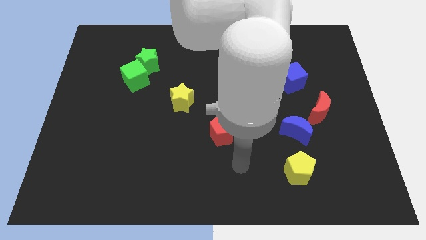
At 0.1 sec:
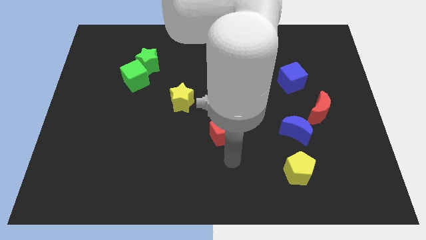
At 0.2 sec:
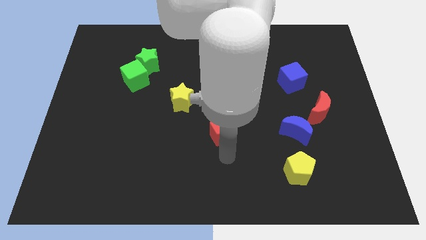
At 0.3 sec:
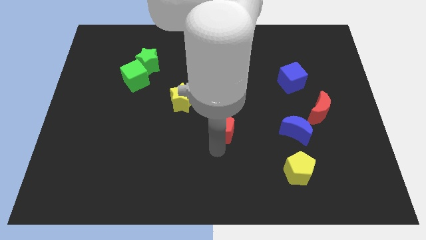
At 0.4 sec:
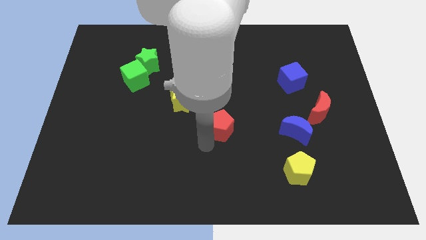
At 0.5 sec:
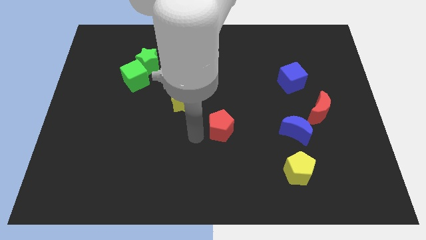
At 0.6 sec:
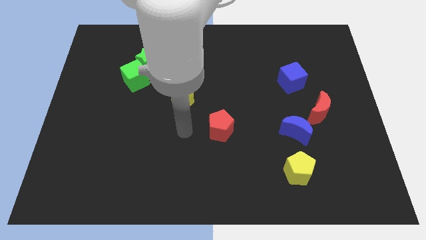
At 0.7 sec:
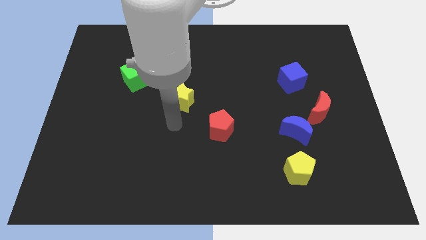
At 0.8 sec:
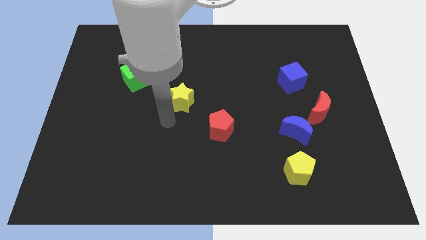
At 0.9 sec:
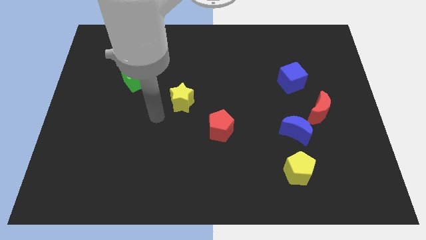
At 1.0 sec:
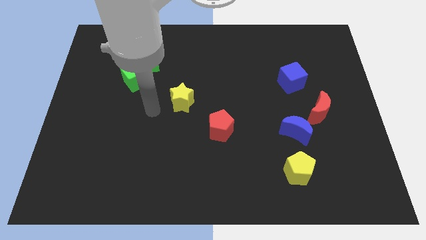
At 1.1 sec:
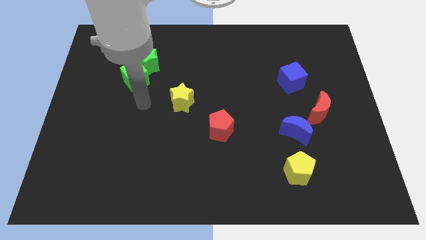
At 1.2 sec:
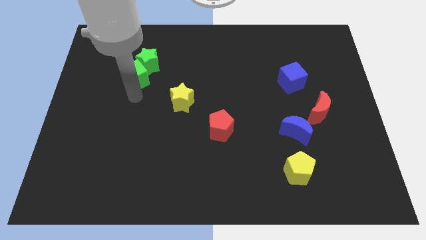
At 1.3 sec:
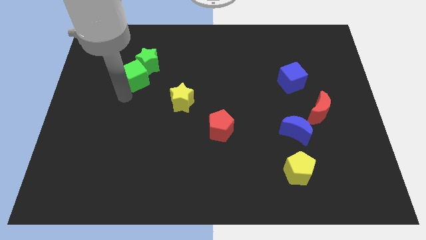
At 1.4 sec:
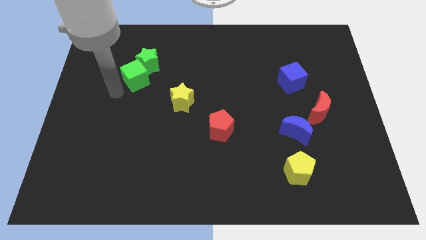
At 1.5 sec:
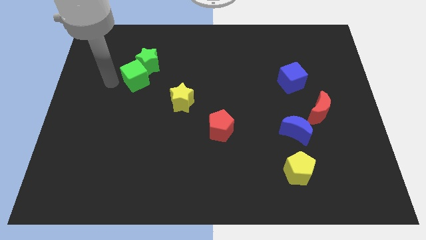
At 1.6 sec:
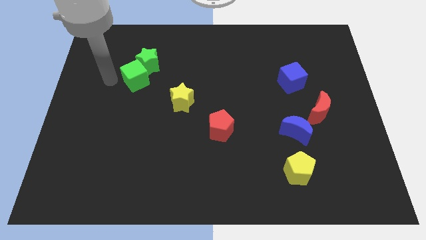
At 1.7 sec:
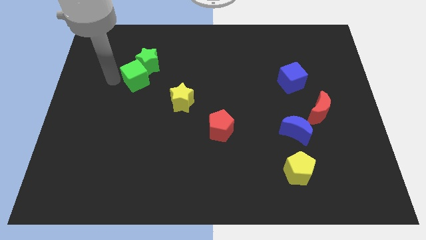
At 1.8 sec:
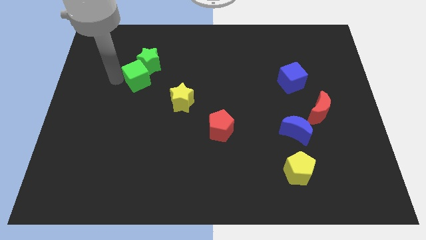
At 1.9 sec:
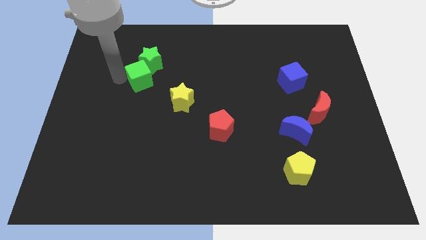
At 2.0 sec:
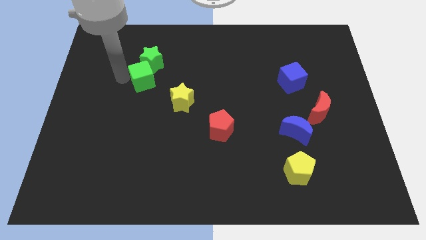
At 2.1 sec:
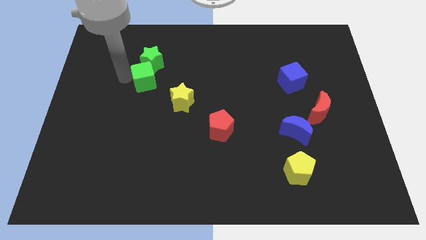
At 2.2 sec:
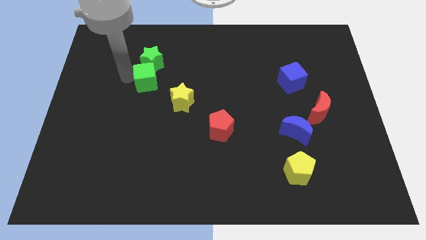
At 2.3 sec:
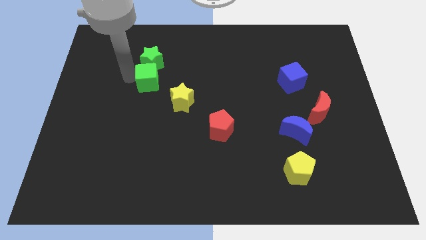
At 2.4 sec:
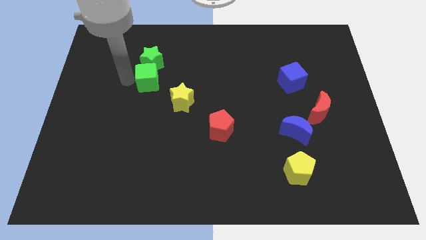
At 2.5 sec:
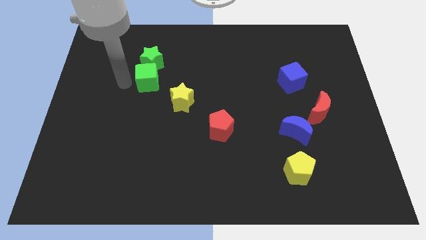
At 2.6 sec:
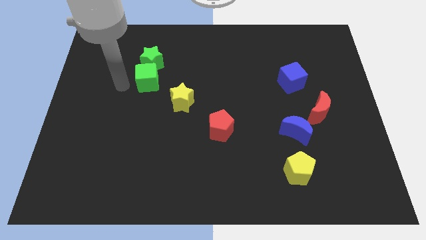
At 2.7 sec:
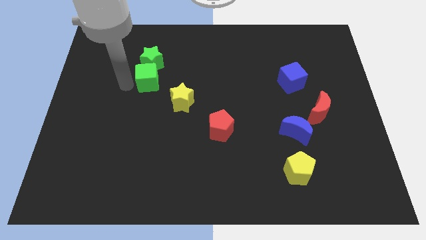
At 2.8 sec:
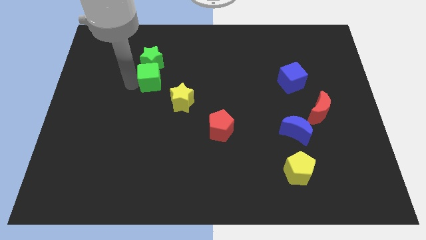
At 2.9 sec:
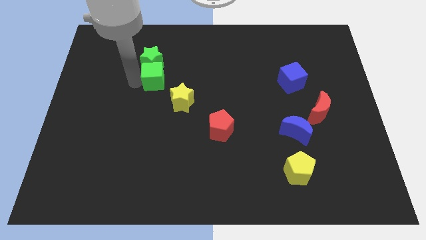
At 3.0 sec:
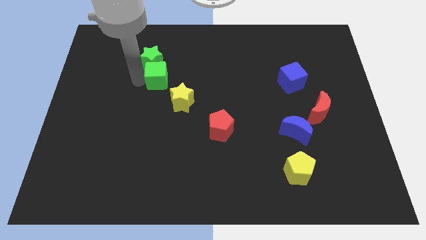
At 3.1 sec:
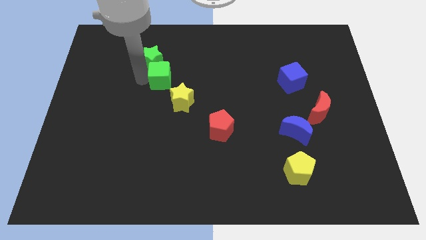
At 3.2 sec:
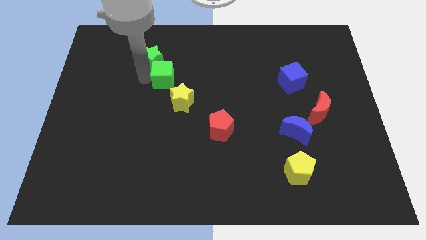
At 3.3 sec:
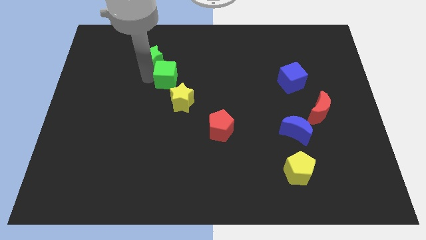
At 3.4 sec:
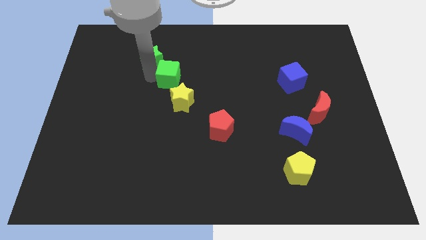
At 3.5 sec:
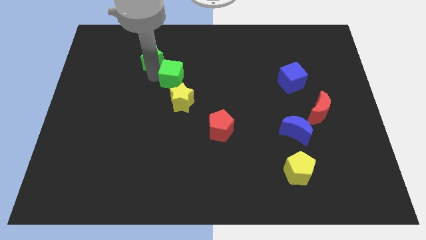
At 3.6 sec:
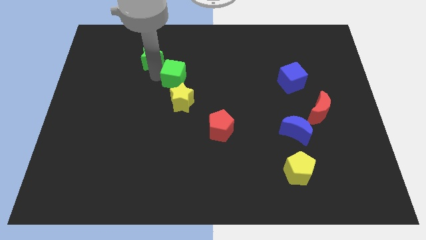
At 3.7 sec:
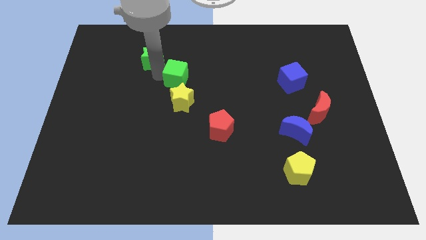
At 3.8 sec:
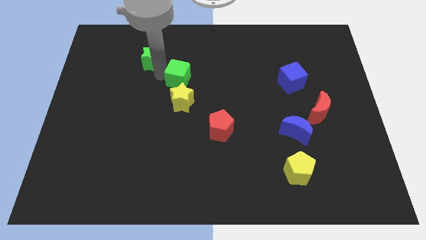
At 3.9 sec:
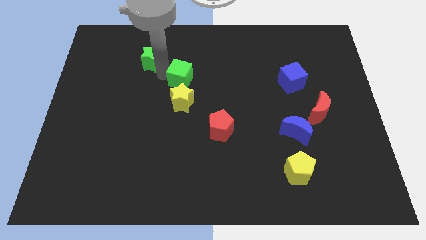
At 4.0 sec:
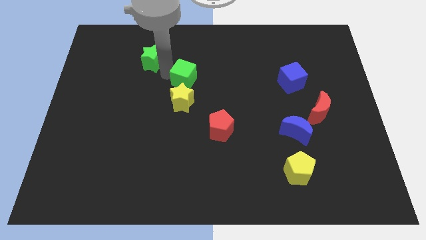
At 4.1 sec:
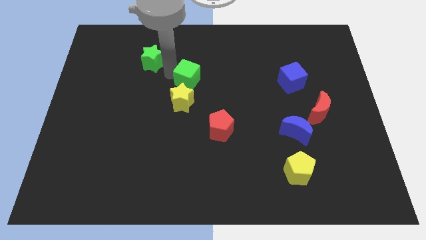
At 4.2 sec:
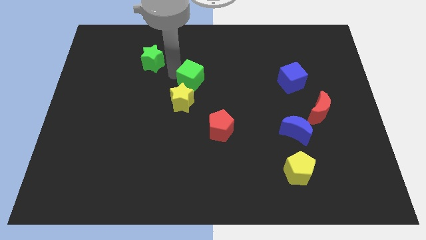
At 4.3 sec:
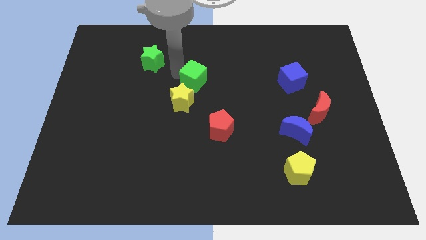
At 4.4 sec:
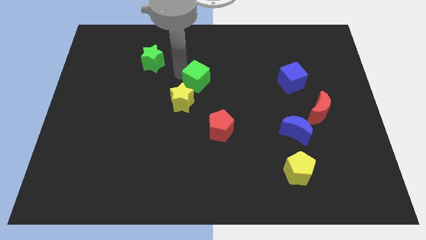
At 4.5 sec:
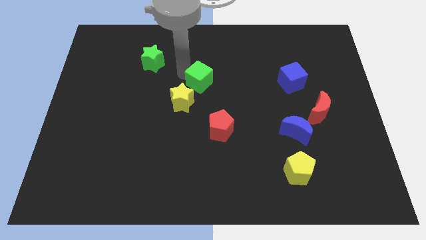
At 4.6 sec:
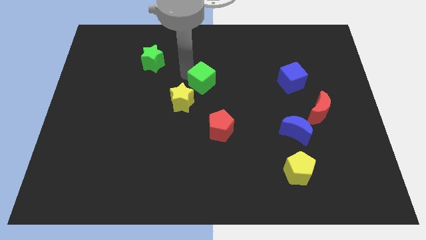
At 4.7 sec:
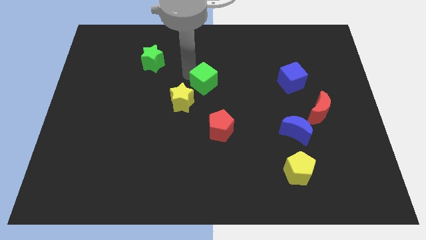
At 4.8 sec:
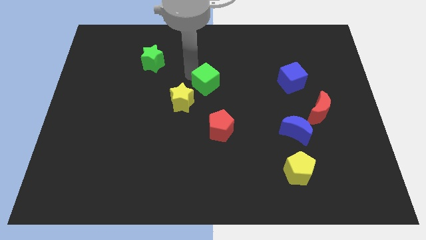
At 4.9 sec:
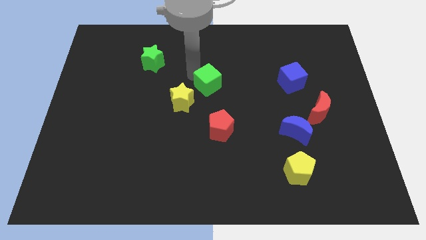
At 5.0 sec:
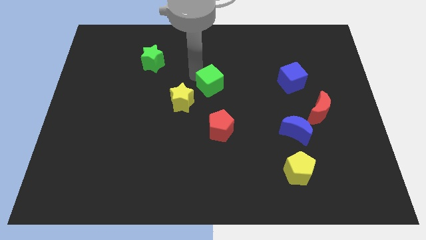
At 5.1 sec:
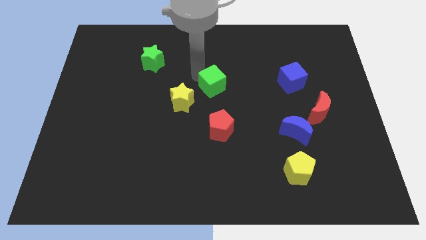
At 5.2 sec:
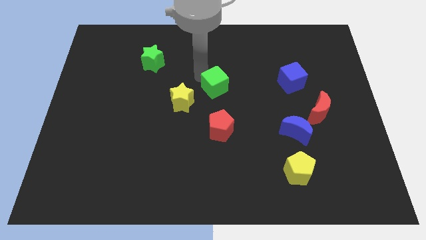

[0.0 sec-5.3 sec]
slide the green cube right of the yellow star

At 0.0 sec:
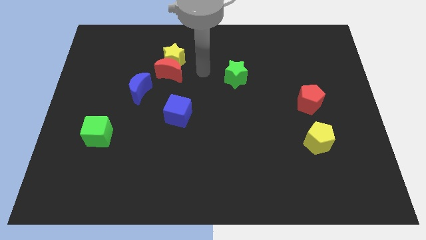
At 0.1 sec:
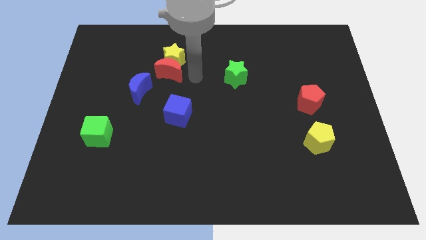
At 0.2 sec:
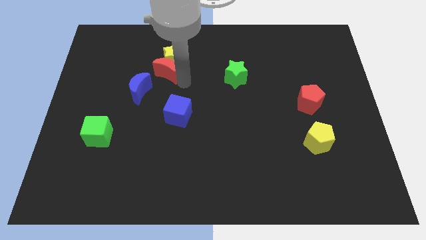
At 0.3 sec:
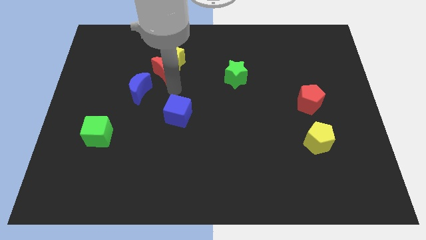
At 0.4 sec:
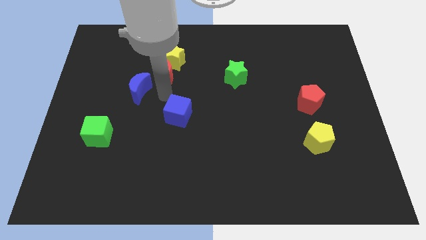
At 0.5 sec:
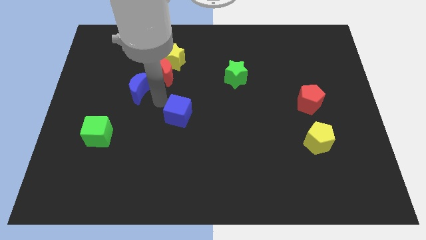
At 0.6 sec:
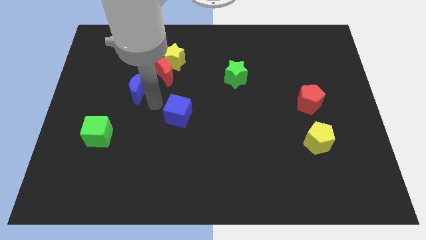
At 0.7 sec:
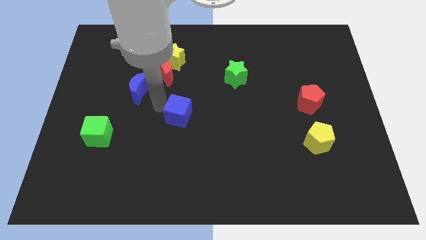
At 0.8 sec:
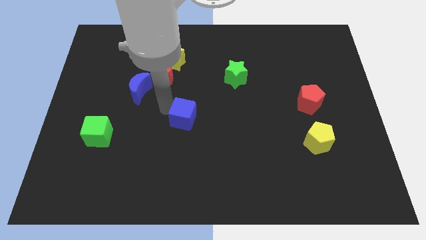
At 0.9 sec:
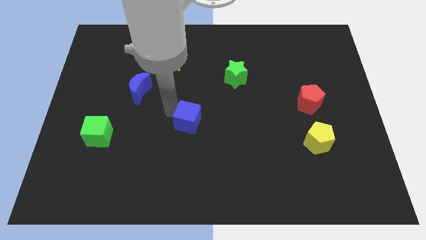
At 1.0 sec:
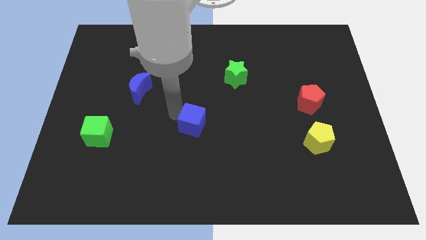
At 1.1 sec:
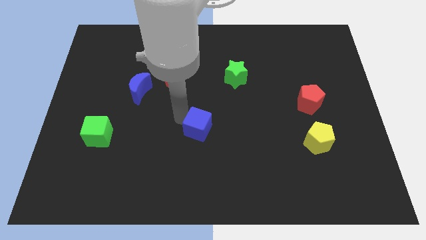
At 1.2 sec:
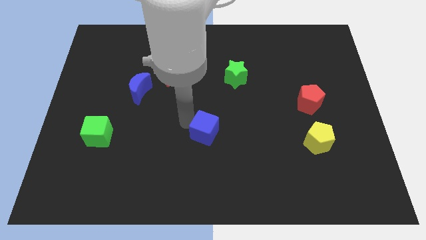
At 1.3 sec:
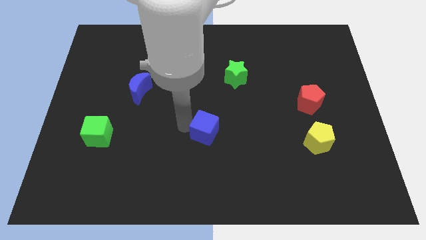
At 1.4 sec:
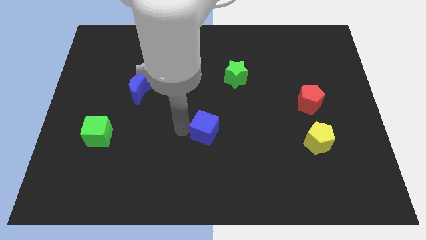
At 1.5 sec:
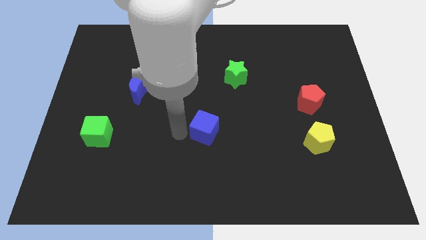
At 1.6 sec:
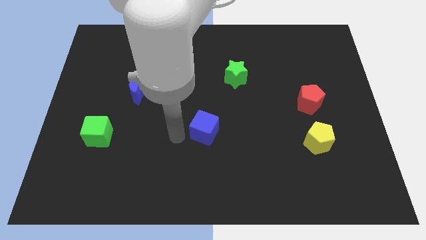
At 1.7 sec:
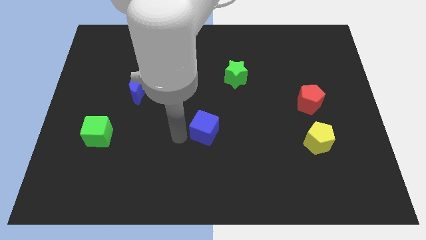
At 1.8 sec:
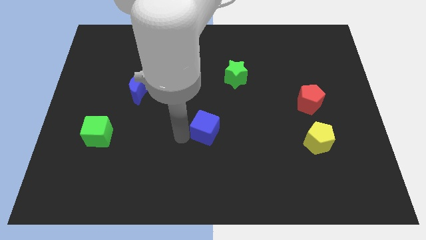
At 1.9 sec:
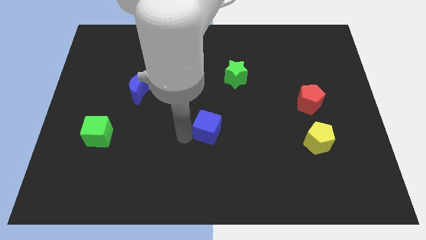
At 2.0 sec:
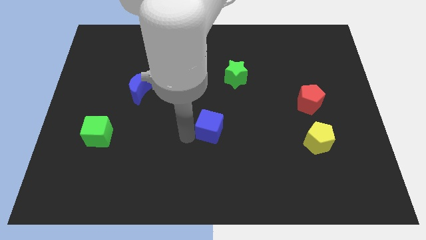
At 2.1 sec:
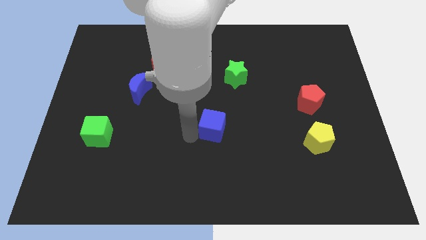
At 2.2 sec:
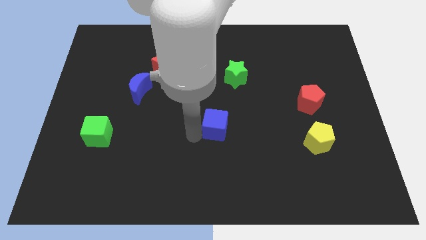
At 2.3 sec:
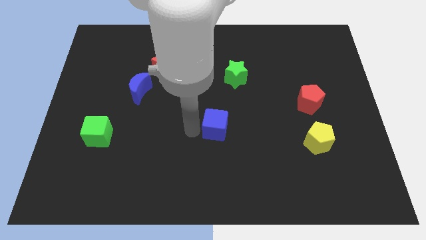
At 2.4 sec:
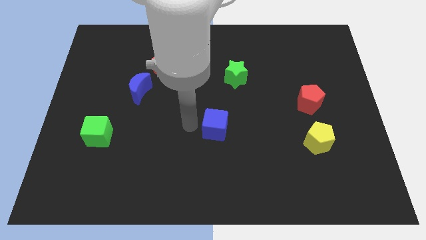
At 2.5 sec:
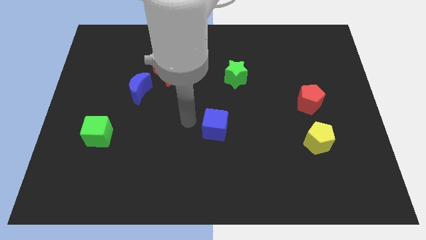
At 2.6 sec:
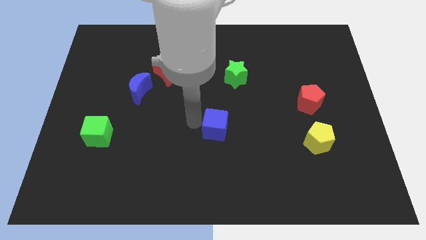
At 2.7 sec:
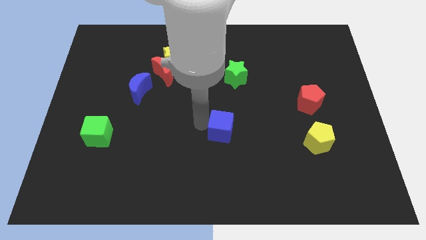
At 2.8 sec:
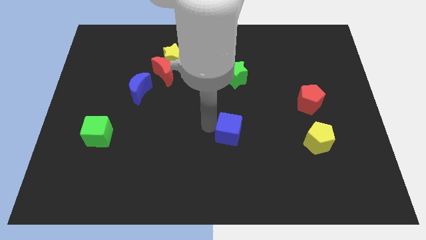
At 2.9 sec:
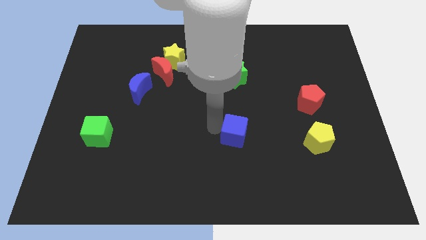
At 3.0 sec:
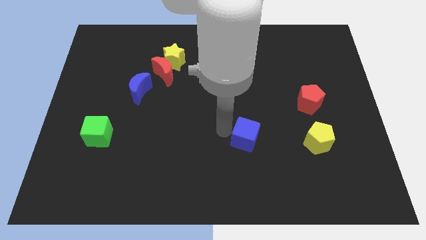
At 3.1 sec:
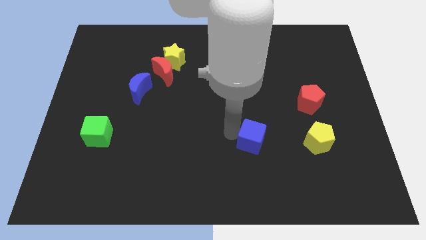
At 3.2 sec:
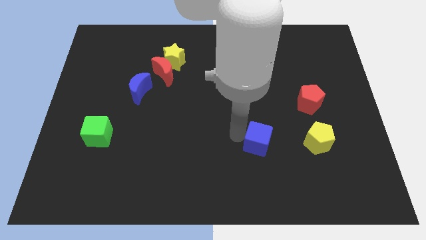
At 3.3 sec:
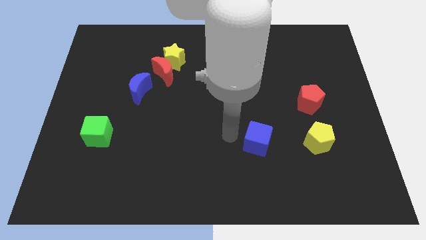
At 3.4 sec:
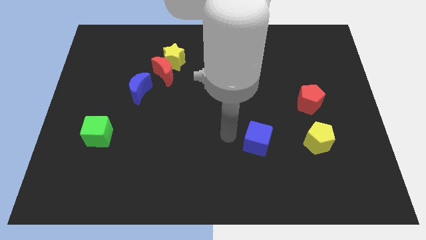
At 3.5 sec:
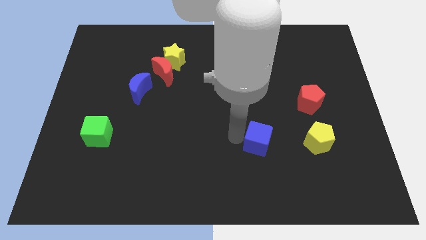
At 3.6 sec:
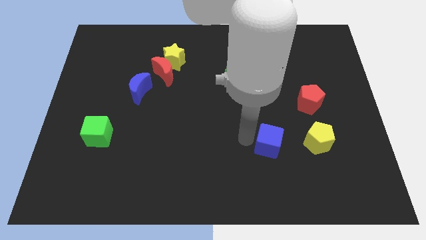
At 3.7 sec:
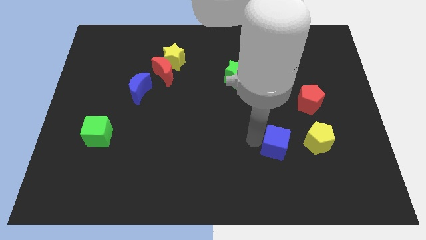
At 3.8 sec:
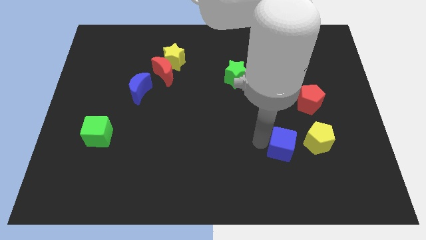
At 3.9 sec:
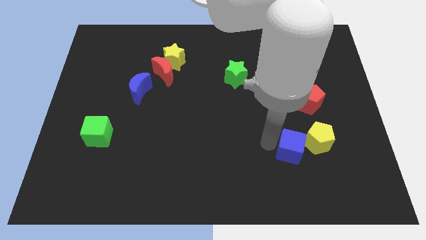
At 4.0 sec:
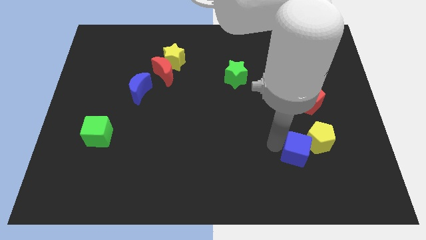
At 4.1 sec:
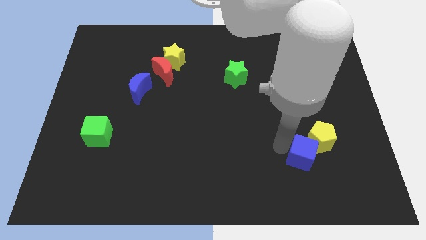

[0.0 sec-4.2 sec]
put the blue cube to the bottom side of the red pentagon
